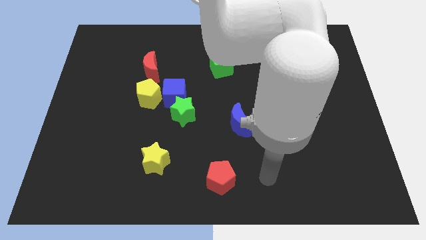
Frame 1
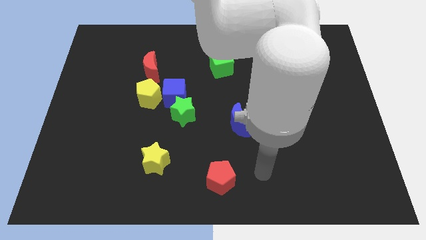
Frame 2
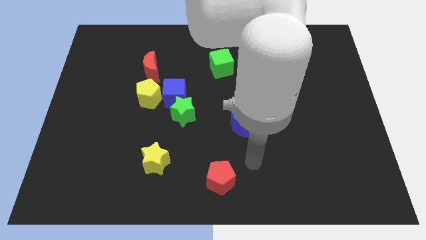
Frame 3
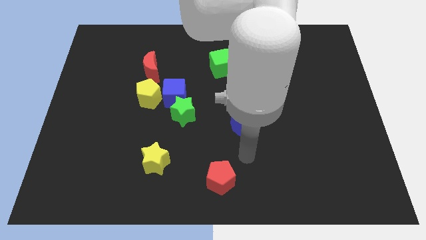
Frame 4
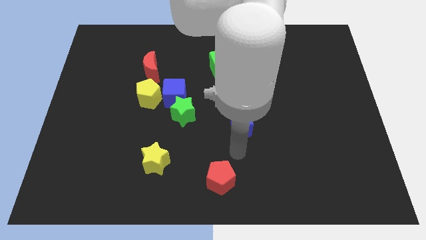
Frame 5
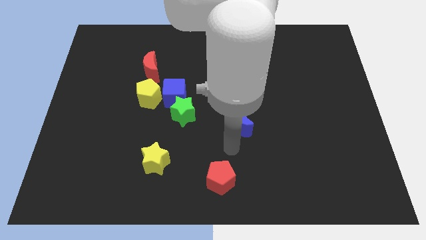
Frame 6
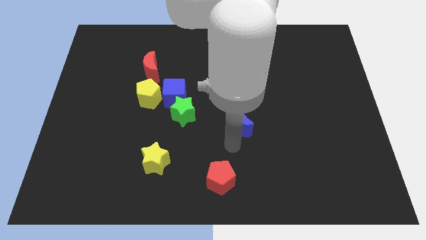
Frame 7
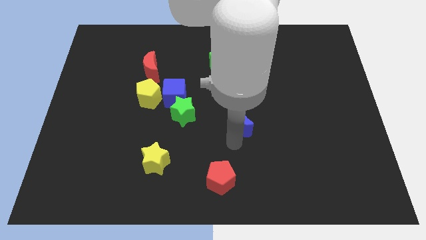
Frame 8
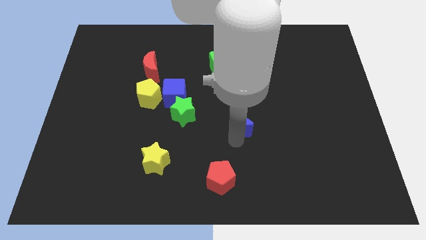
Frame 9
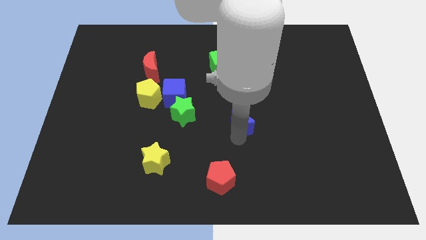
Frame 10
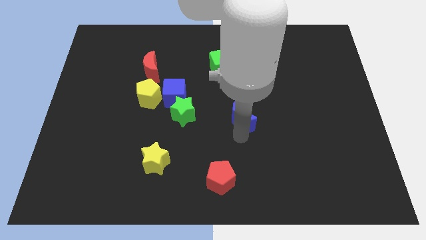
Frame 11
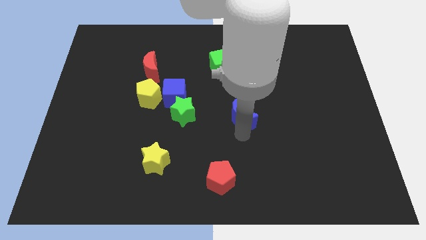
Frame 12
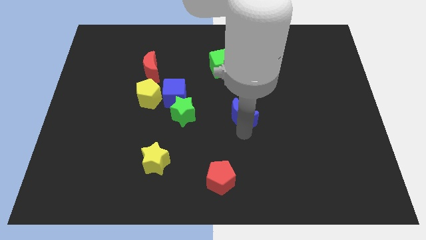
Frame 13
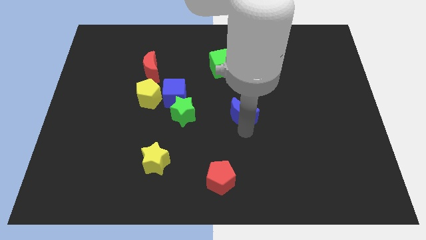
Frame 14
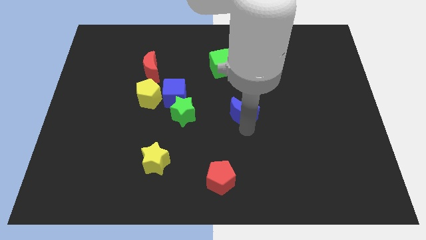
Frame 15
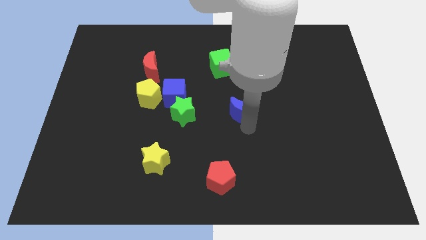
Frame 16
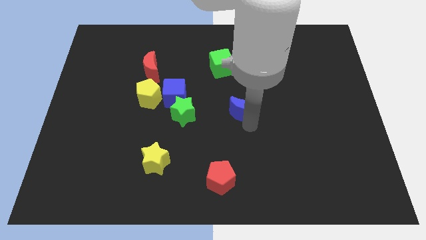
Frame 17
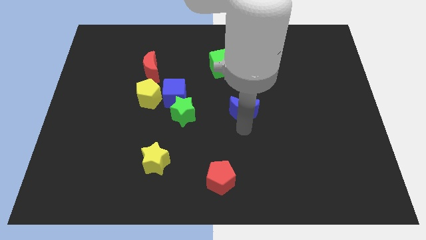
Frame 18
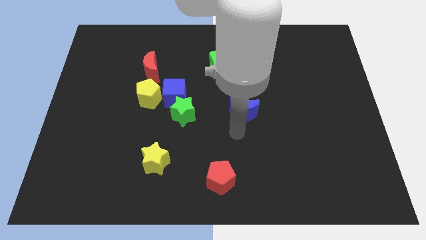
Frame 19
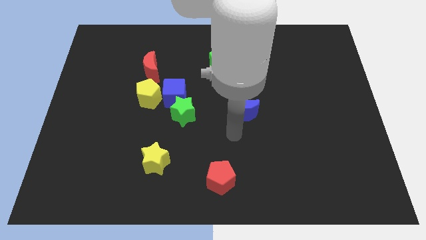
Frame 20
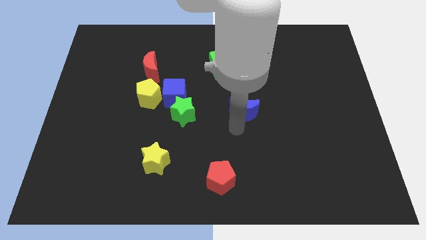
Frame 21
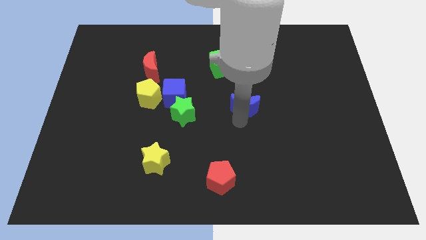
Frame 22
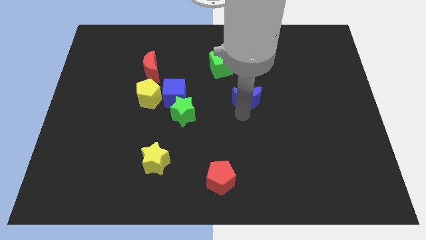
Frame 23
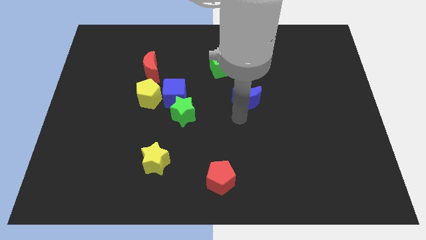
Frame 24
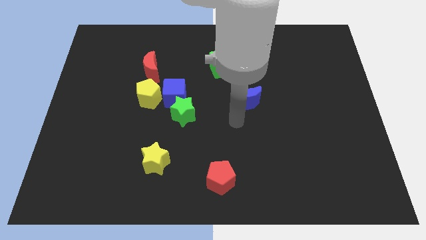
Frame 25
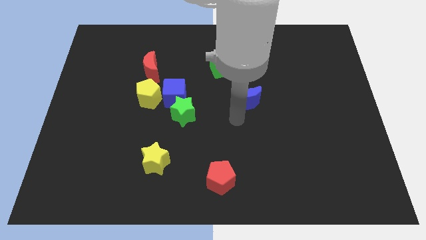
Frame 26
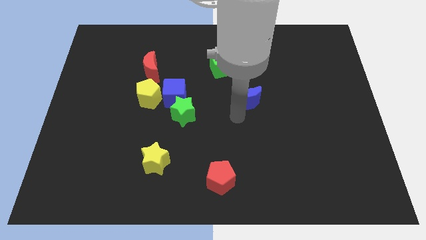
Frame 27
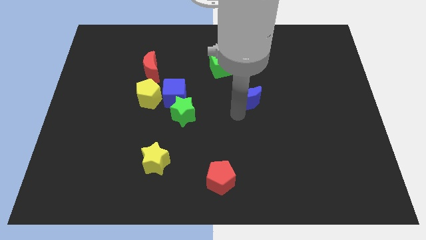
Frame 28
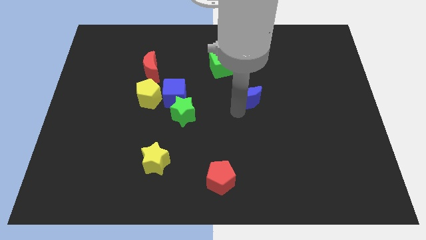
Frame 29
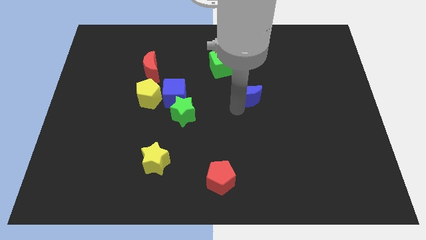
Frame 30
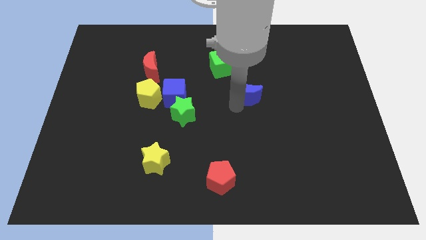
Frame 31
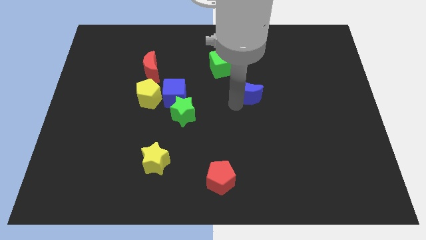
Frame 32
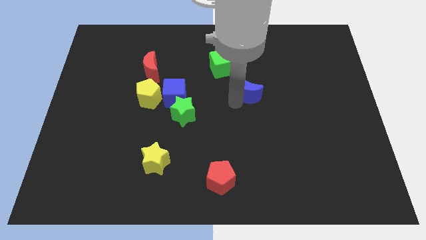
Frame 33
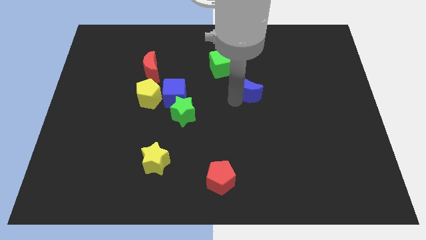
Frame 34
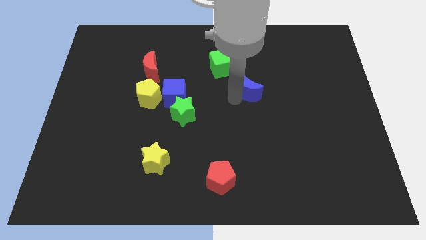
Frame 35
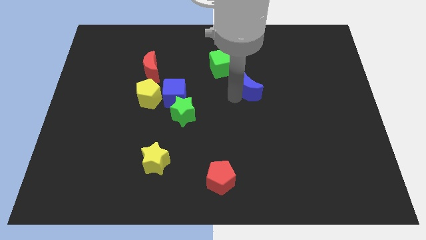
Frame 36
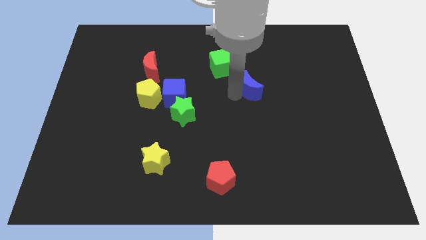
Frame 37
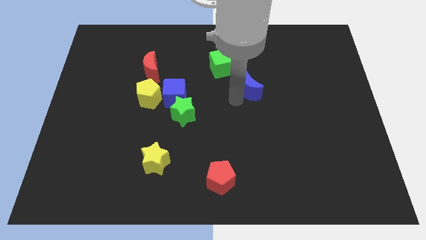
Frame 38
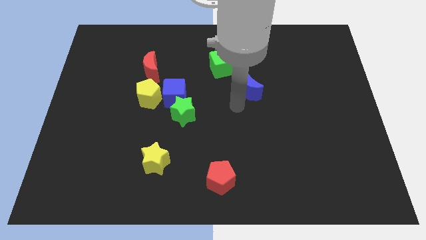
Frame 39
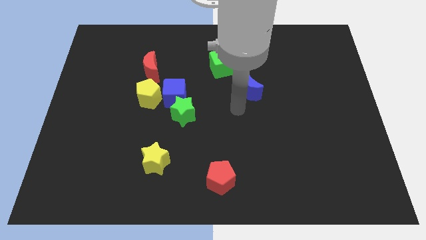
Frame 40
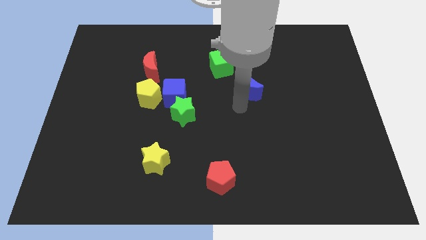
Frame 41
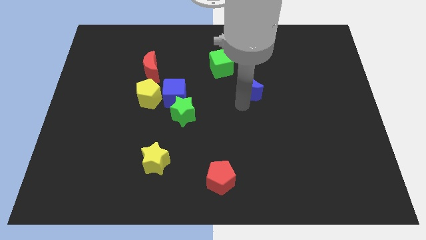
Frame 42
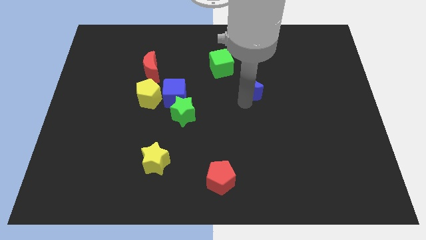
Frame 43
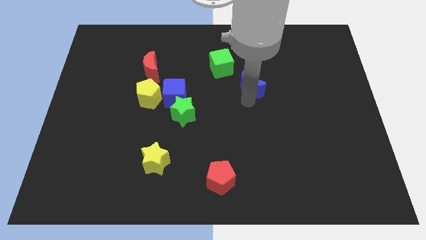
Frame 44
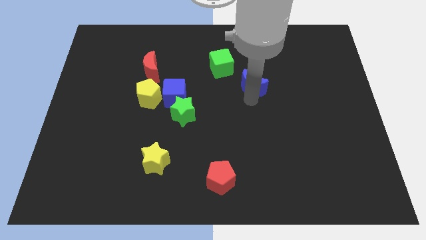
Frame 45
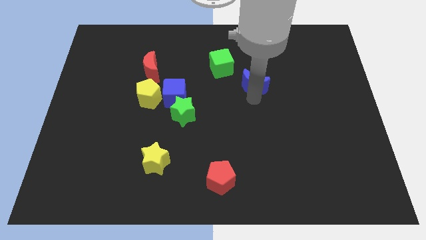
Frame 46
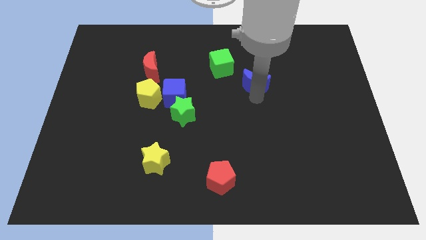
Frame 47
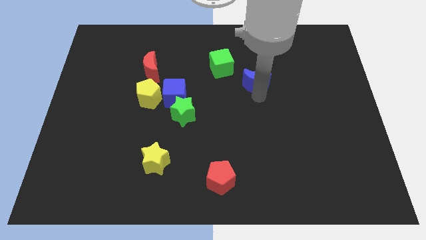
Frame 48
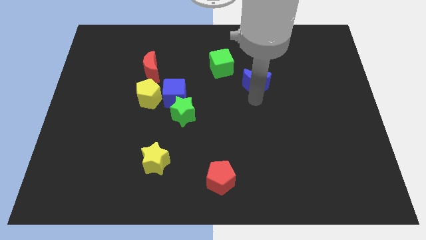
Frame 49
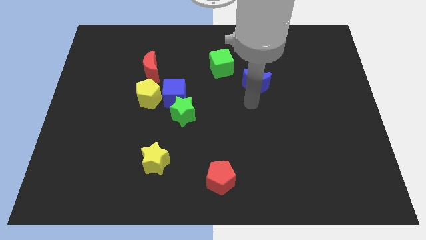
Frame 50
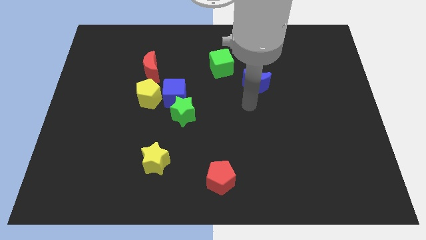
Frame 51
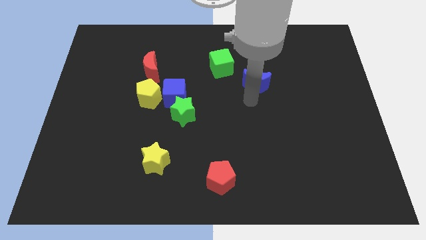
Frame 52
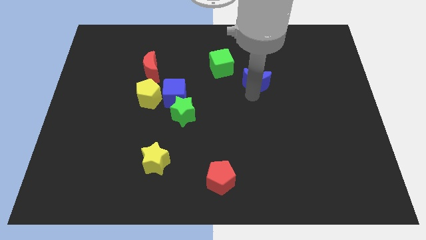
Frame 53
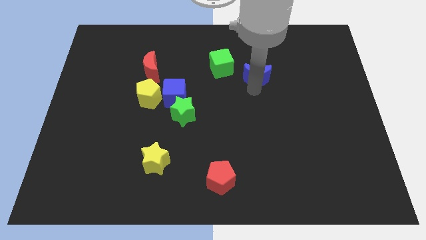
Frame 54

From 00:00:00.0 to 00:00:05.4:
slide the blue moon to the right side of the green cube

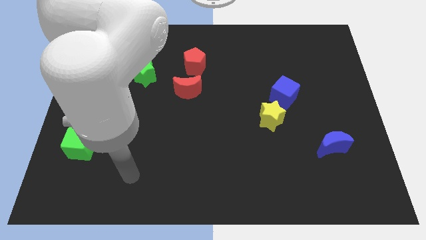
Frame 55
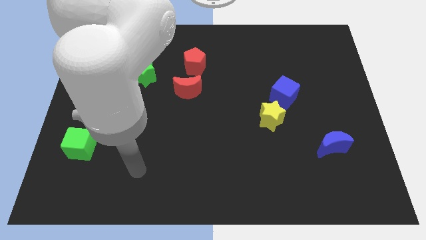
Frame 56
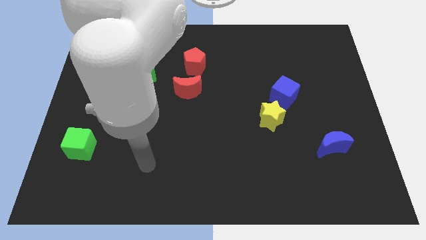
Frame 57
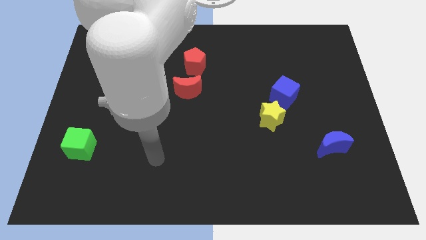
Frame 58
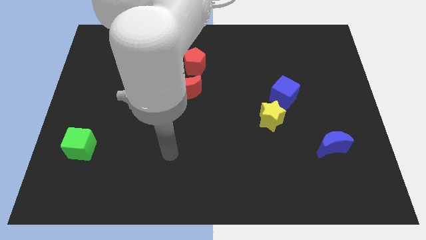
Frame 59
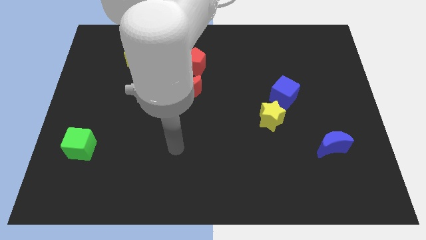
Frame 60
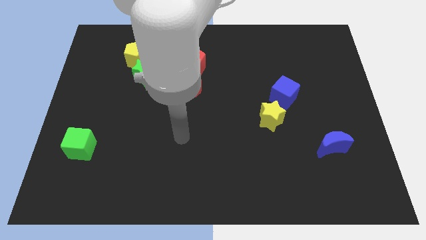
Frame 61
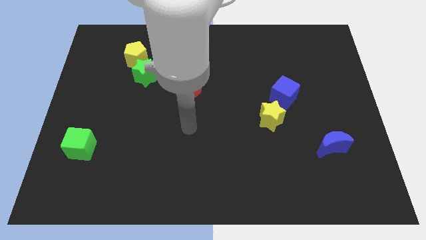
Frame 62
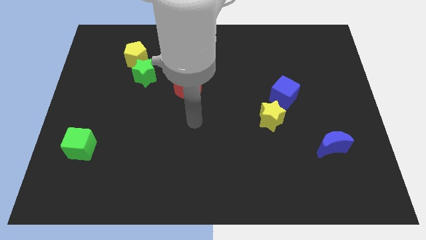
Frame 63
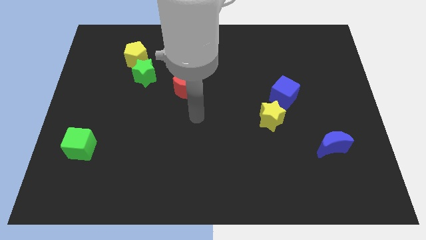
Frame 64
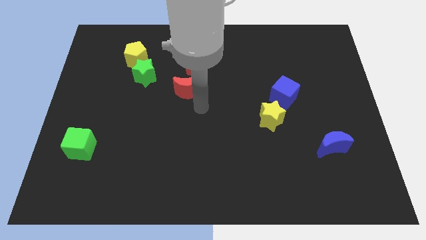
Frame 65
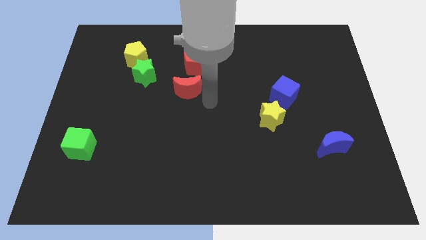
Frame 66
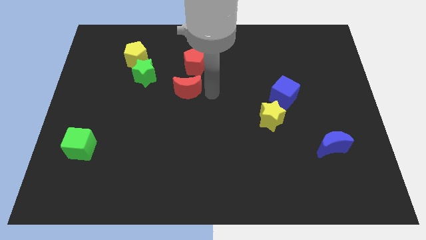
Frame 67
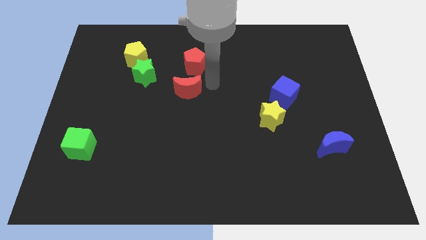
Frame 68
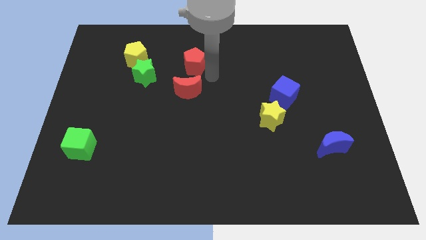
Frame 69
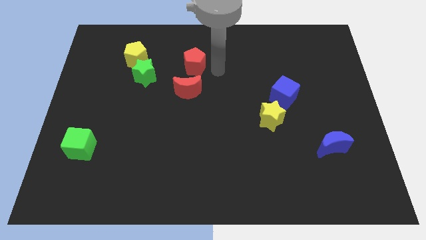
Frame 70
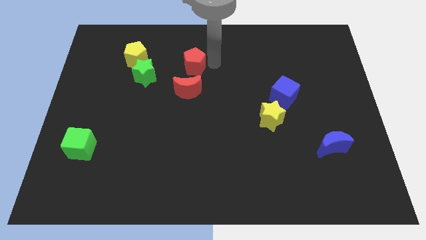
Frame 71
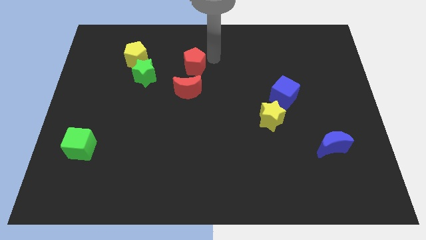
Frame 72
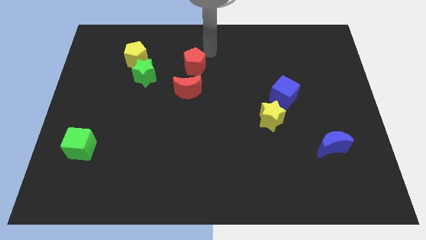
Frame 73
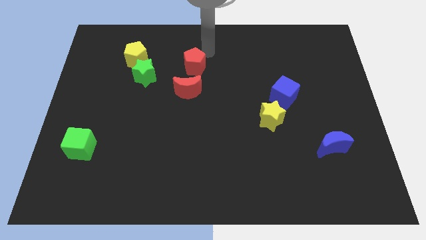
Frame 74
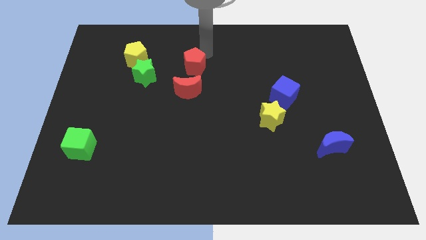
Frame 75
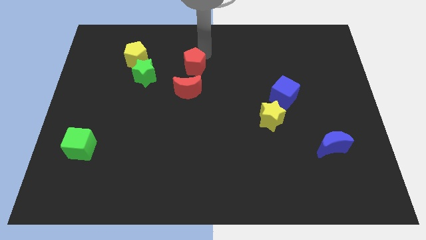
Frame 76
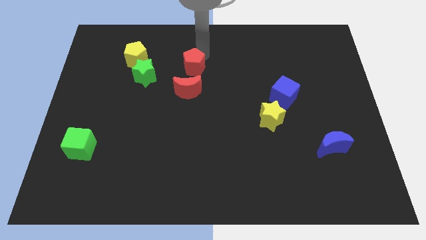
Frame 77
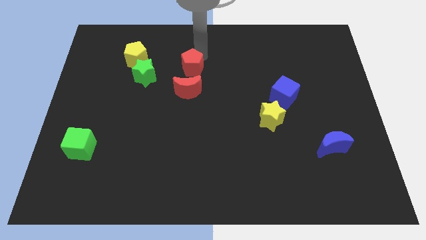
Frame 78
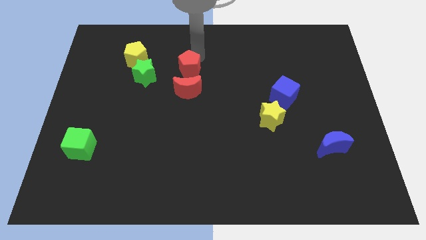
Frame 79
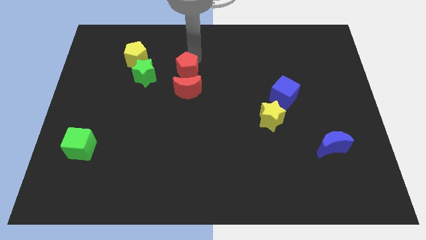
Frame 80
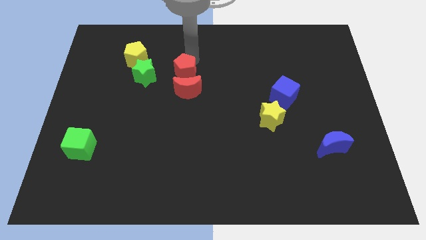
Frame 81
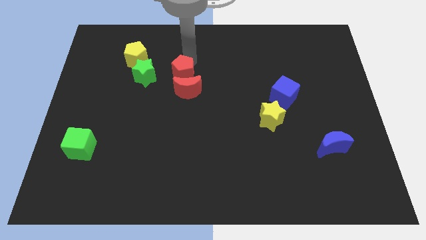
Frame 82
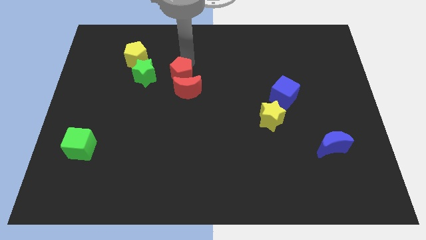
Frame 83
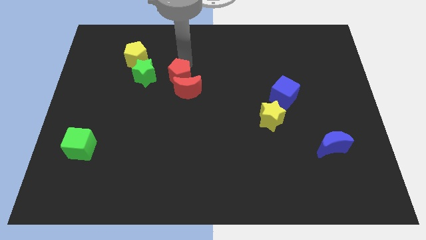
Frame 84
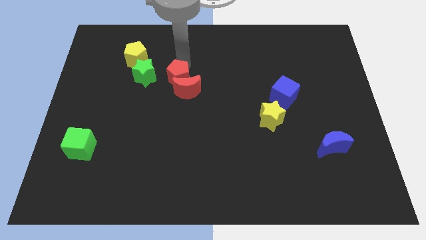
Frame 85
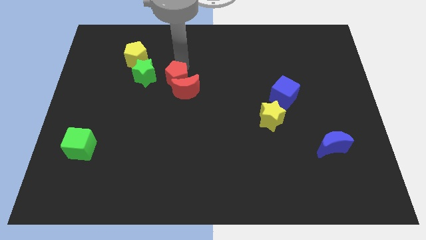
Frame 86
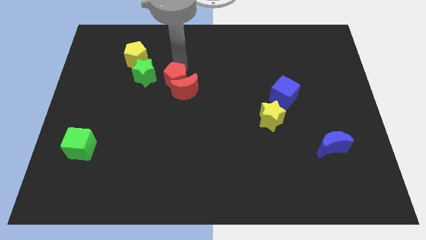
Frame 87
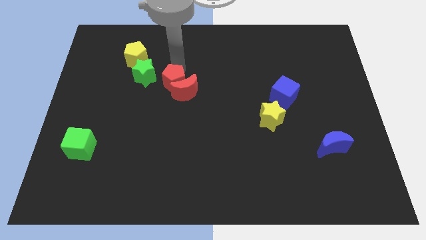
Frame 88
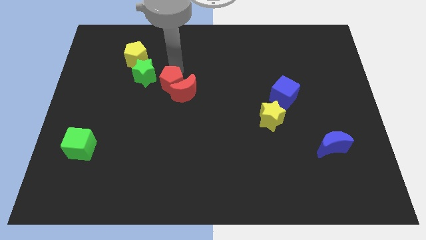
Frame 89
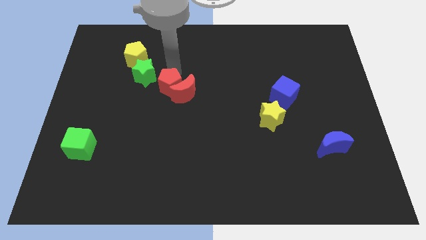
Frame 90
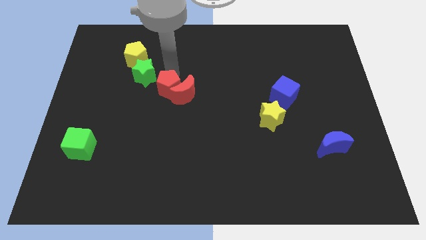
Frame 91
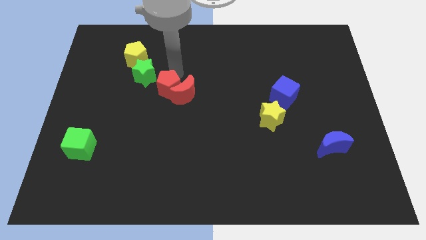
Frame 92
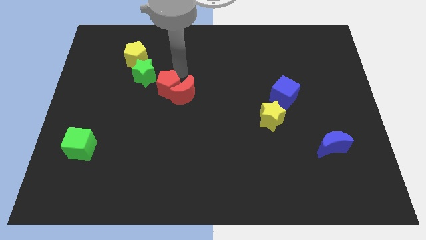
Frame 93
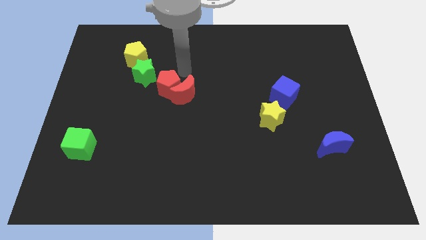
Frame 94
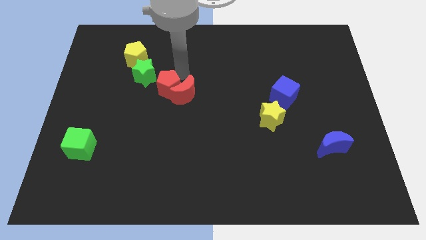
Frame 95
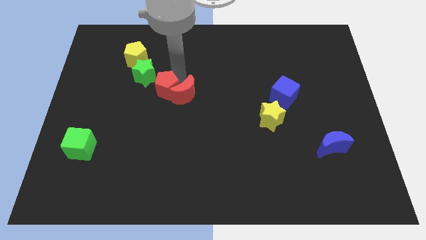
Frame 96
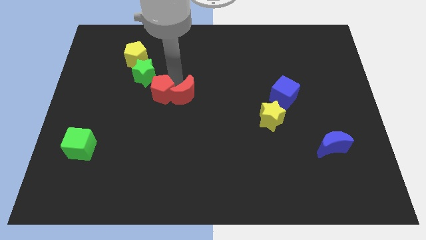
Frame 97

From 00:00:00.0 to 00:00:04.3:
slide the red pentagon to the bottom side of the green star
